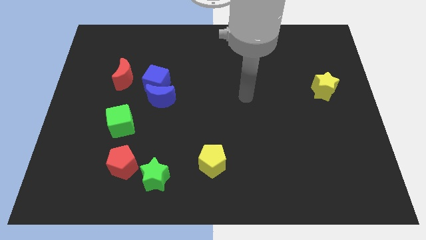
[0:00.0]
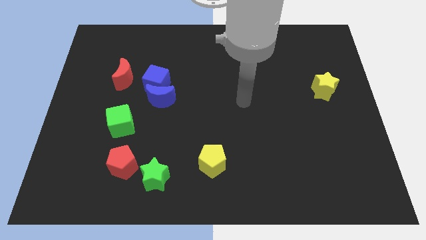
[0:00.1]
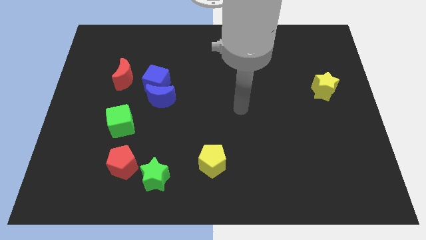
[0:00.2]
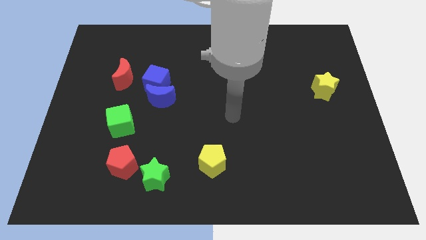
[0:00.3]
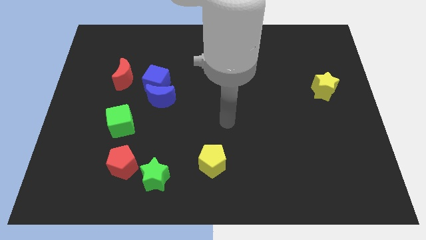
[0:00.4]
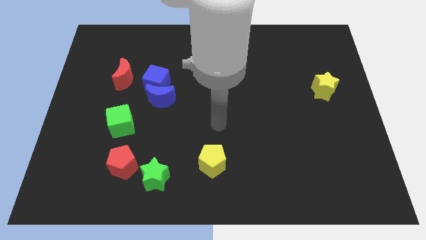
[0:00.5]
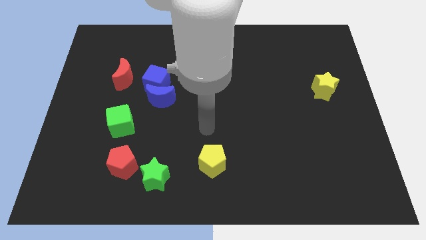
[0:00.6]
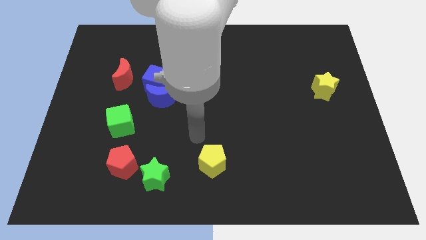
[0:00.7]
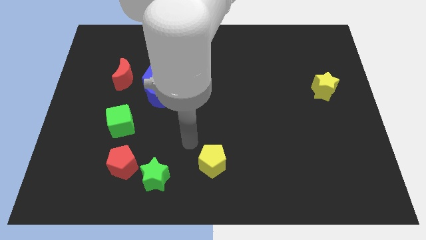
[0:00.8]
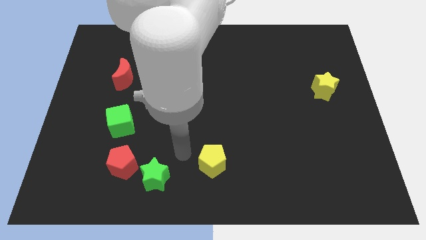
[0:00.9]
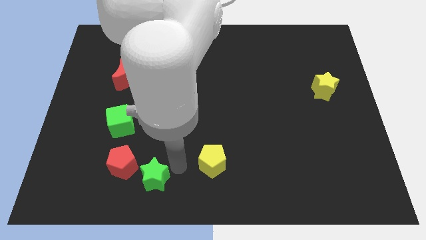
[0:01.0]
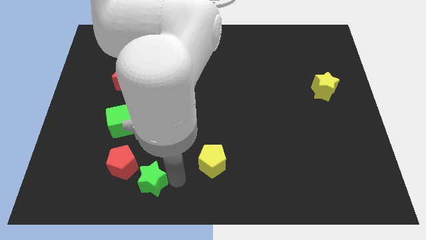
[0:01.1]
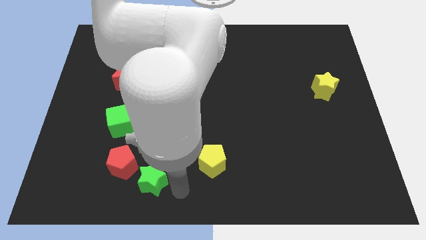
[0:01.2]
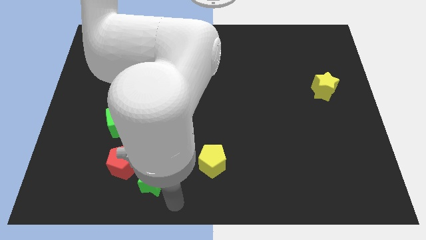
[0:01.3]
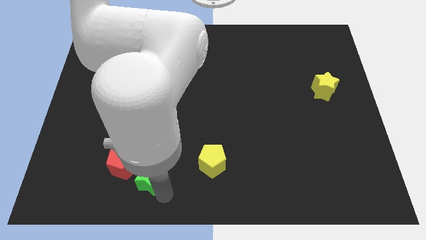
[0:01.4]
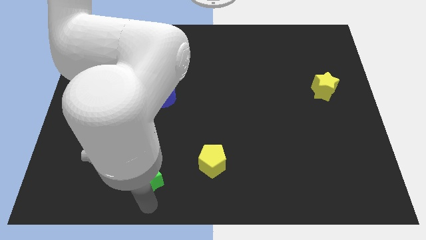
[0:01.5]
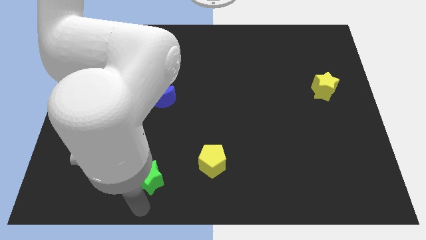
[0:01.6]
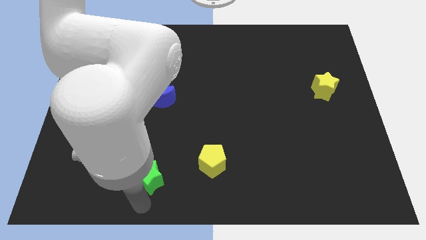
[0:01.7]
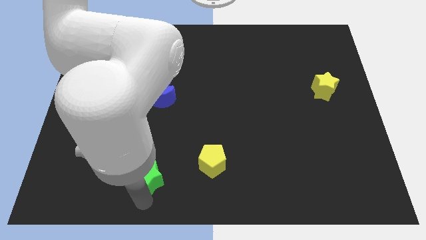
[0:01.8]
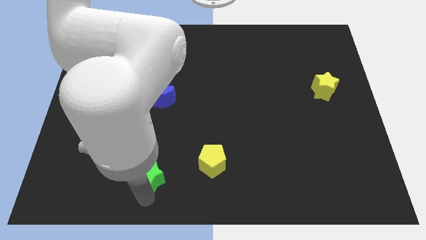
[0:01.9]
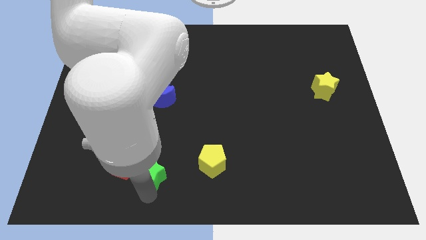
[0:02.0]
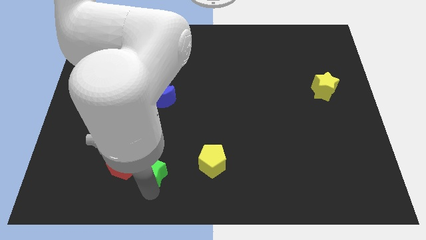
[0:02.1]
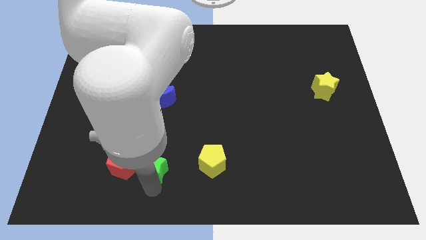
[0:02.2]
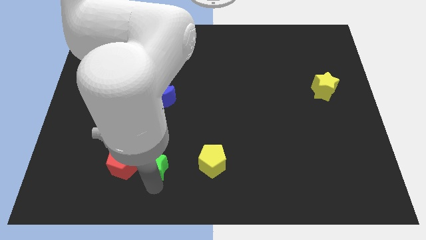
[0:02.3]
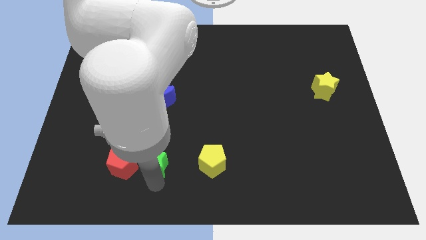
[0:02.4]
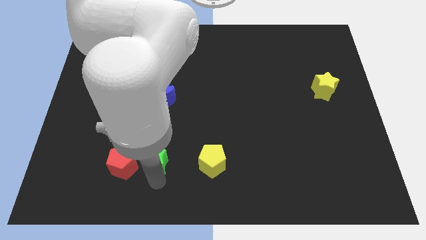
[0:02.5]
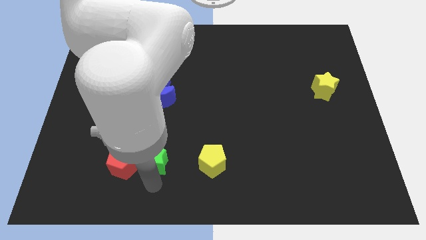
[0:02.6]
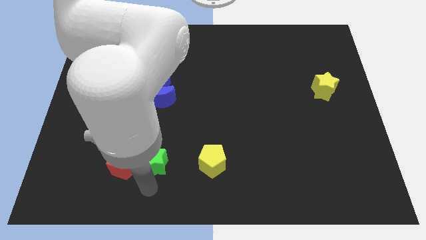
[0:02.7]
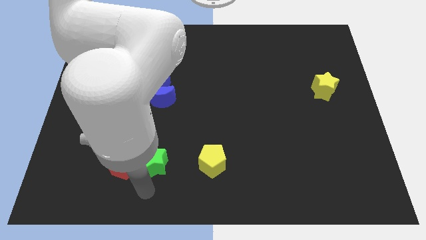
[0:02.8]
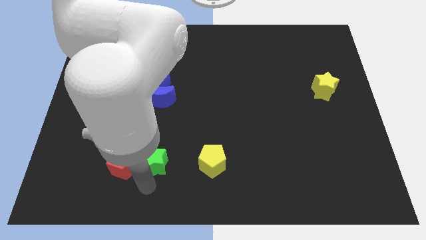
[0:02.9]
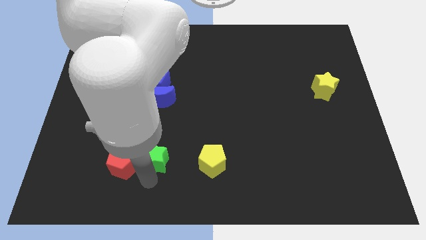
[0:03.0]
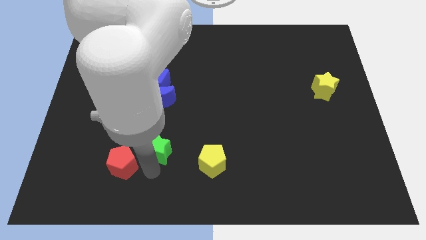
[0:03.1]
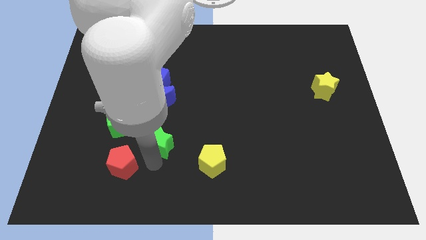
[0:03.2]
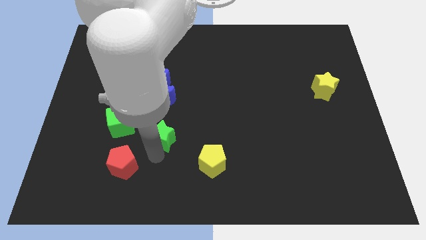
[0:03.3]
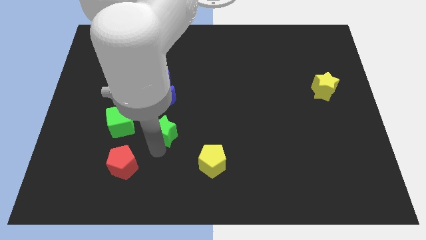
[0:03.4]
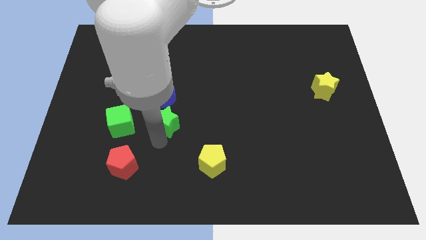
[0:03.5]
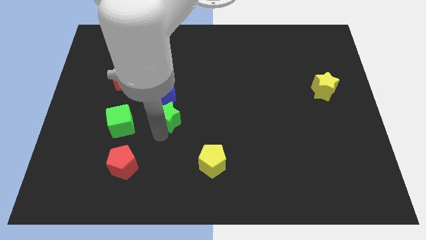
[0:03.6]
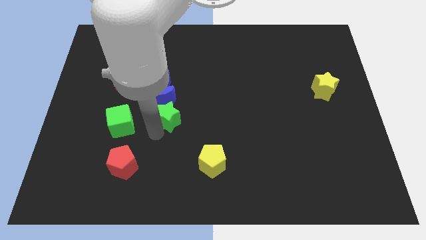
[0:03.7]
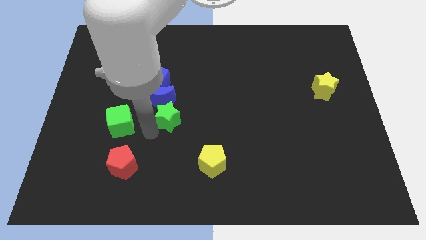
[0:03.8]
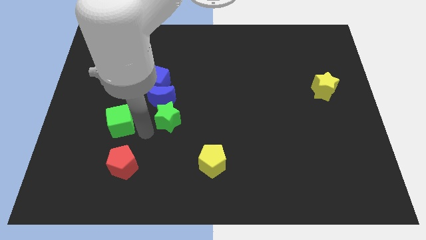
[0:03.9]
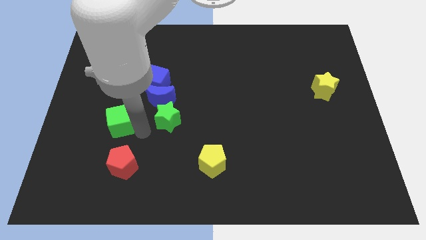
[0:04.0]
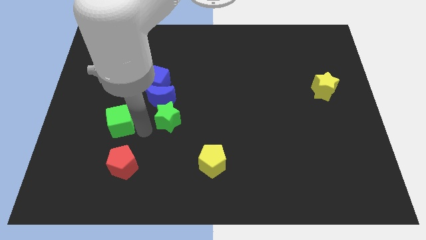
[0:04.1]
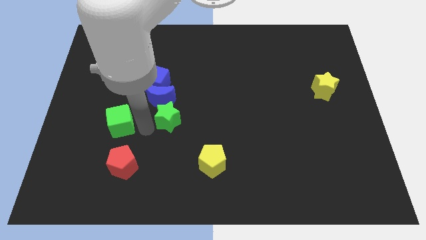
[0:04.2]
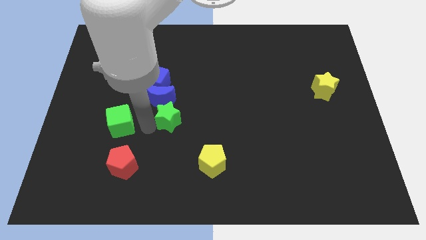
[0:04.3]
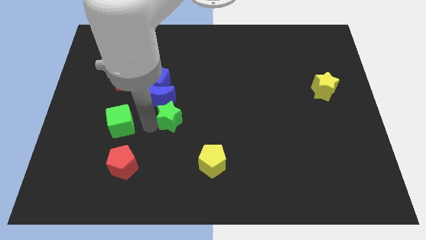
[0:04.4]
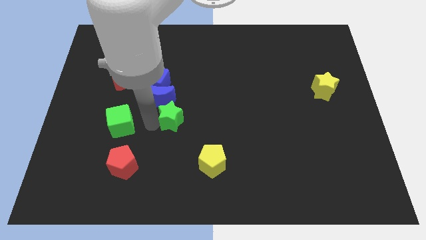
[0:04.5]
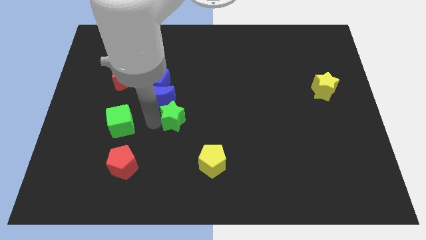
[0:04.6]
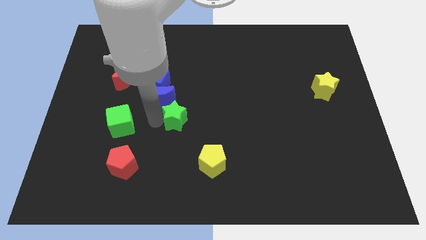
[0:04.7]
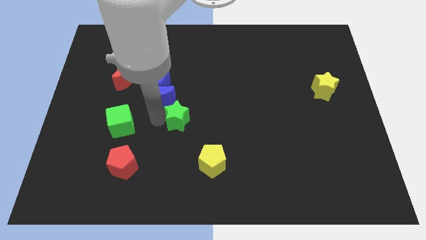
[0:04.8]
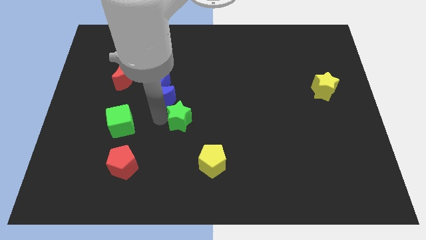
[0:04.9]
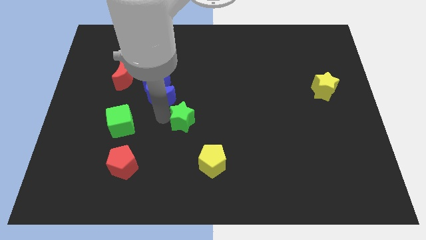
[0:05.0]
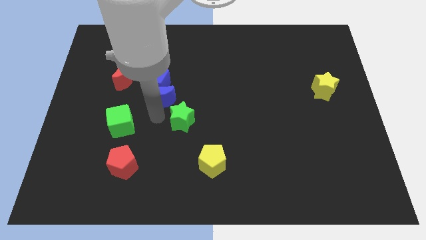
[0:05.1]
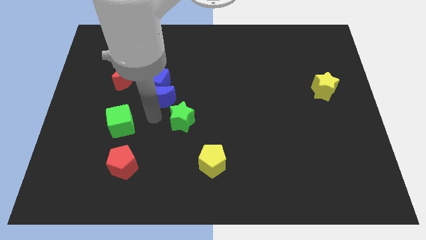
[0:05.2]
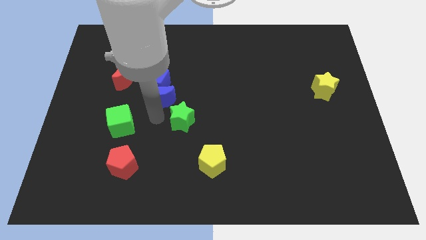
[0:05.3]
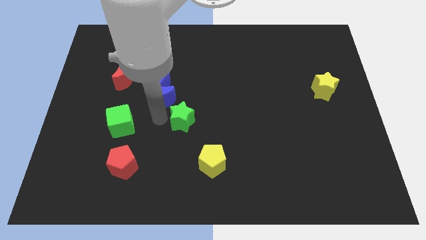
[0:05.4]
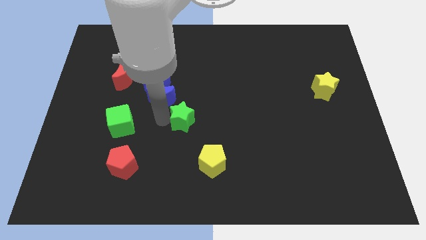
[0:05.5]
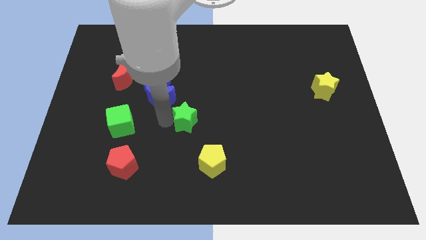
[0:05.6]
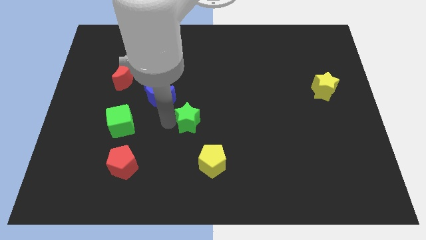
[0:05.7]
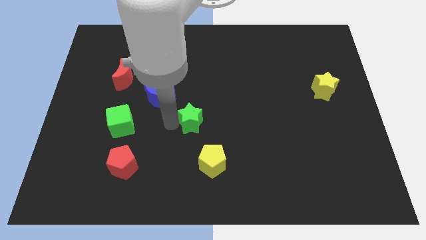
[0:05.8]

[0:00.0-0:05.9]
push the green star above the yellow pentagon
